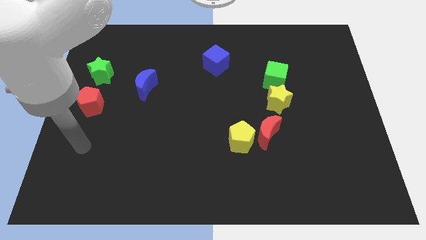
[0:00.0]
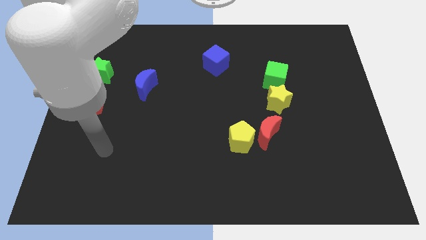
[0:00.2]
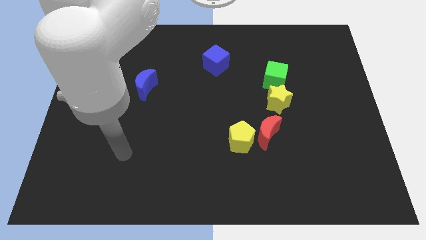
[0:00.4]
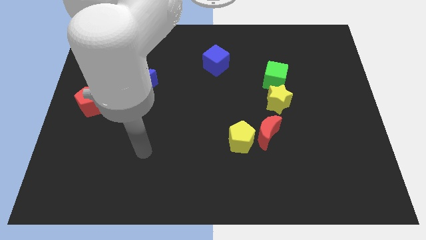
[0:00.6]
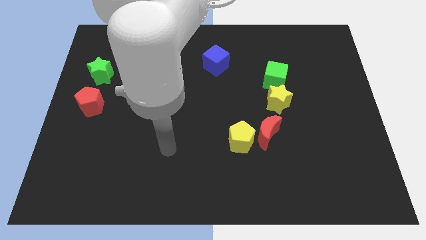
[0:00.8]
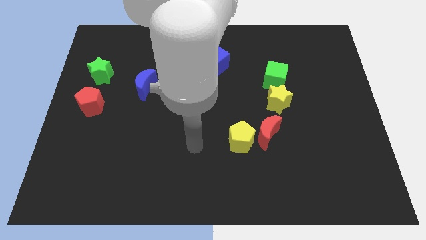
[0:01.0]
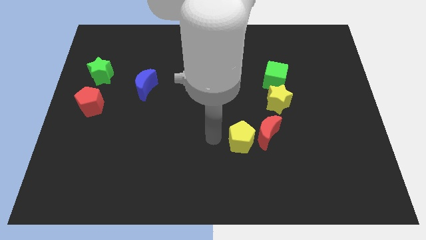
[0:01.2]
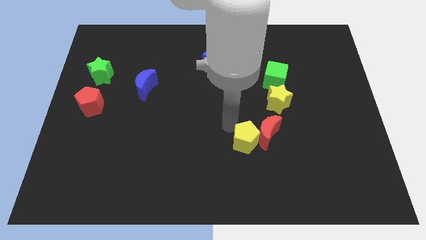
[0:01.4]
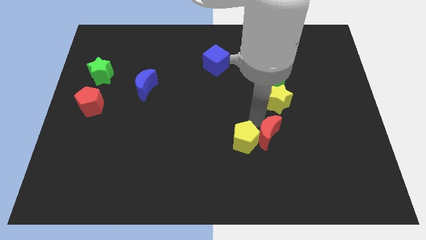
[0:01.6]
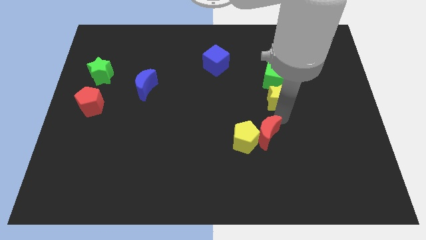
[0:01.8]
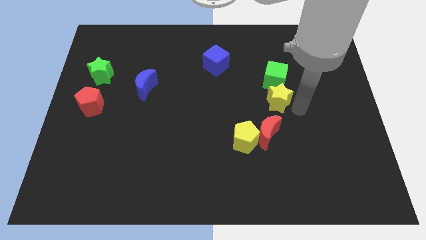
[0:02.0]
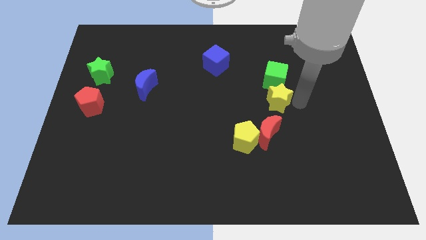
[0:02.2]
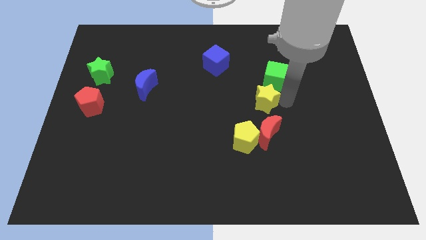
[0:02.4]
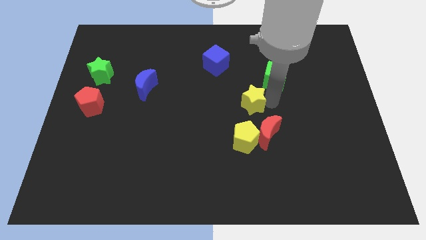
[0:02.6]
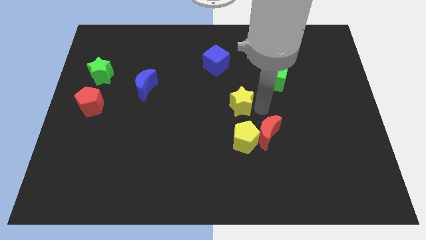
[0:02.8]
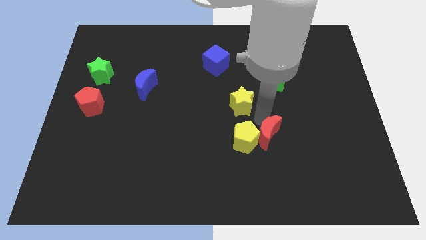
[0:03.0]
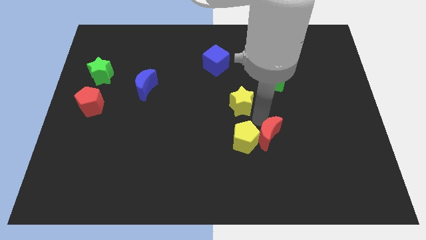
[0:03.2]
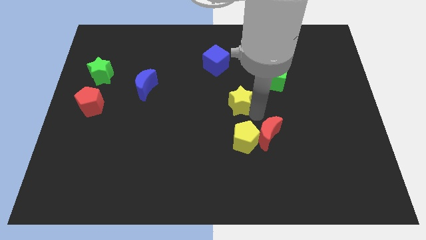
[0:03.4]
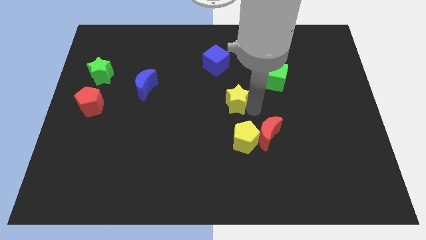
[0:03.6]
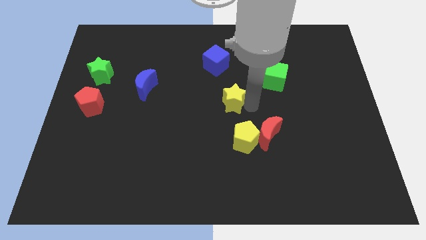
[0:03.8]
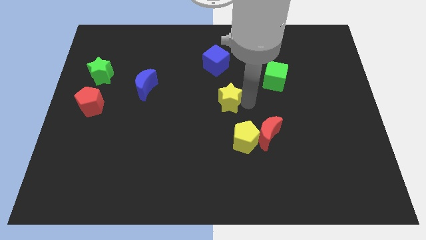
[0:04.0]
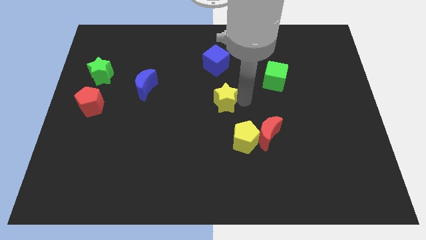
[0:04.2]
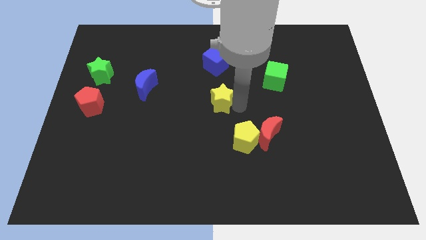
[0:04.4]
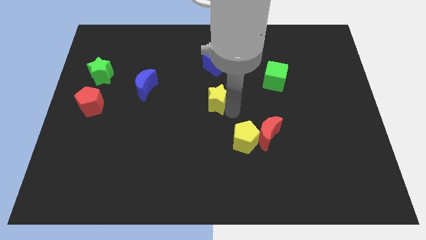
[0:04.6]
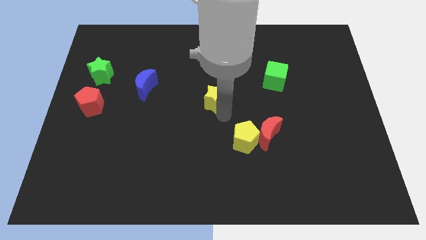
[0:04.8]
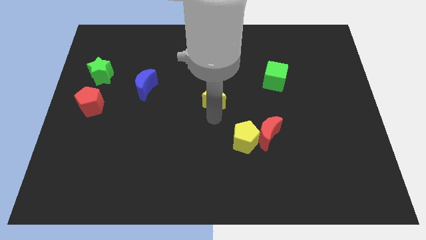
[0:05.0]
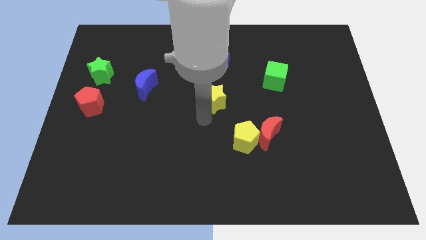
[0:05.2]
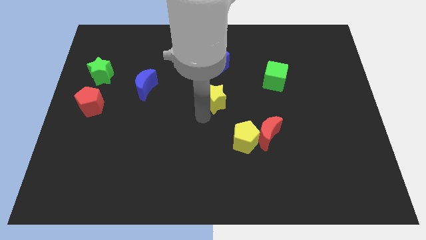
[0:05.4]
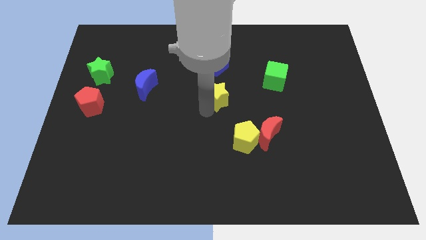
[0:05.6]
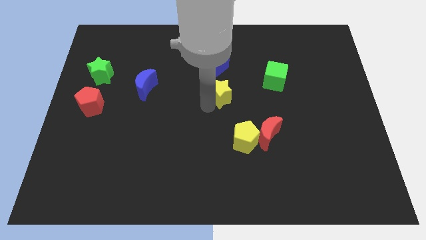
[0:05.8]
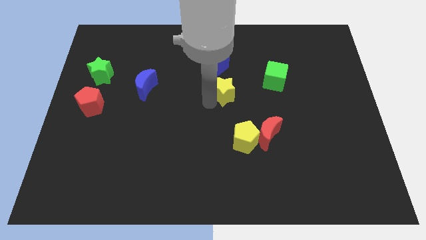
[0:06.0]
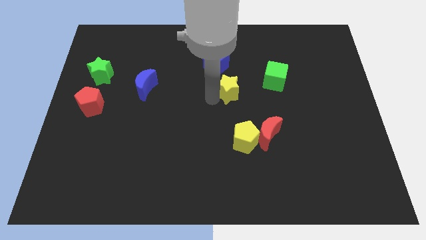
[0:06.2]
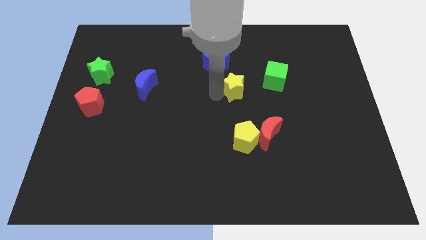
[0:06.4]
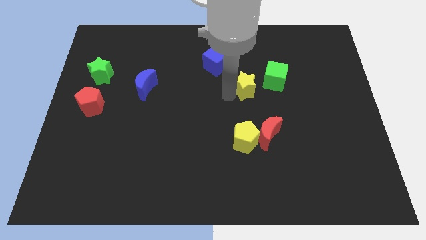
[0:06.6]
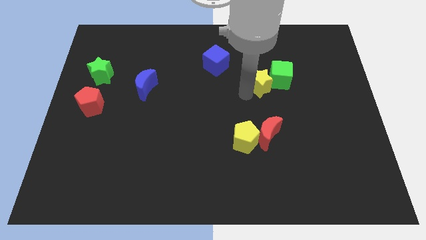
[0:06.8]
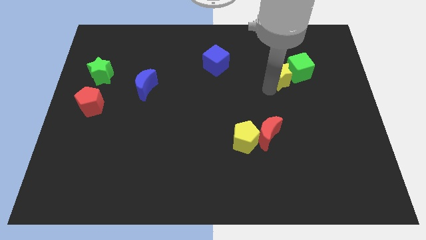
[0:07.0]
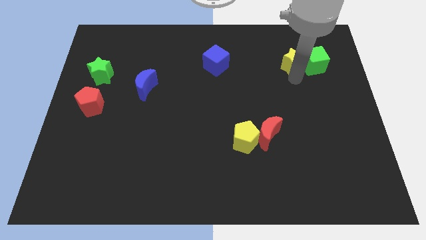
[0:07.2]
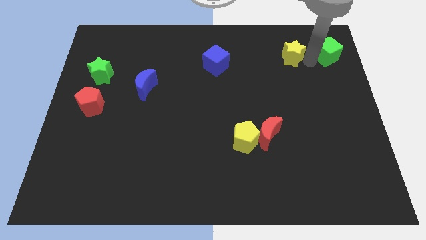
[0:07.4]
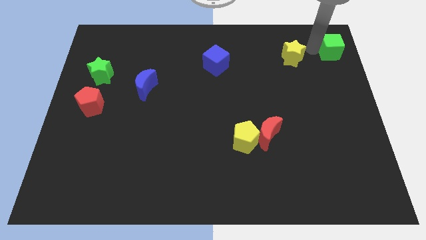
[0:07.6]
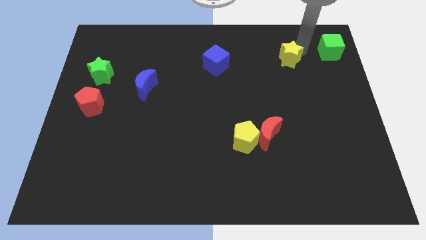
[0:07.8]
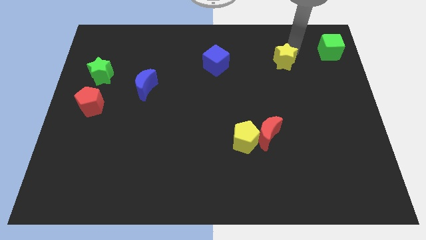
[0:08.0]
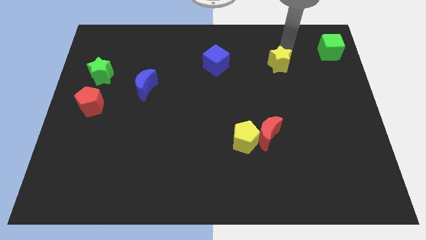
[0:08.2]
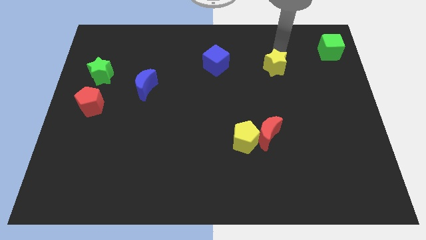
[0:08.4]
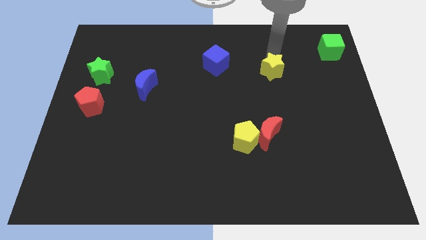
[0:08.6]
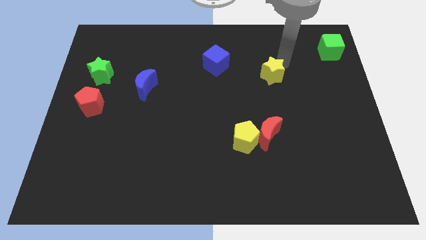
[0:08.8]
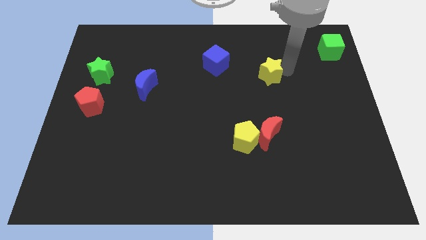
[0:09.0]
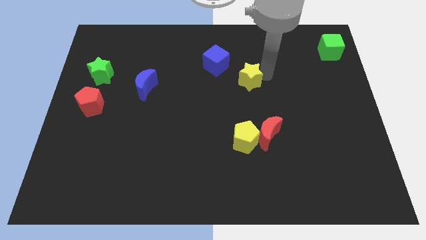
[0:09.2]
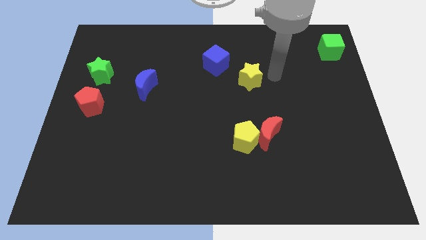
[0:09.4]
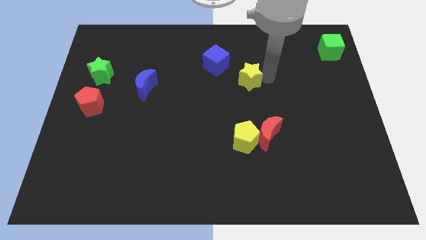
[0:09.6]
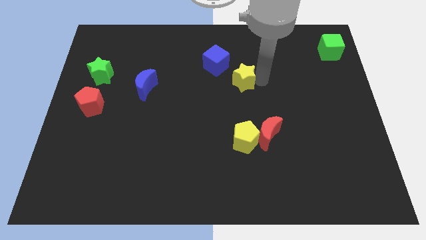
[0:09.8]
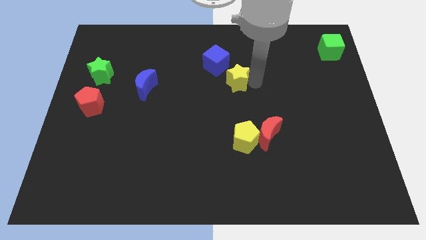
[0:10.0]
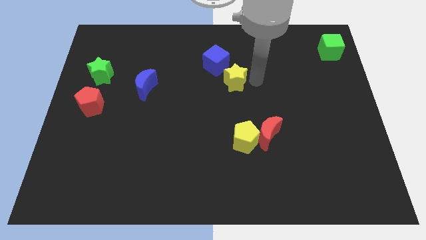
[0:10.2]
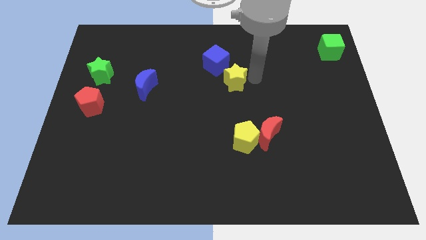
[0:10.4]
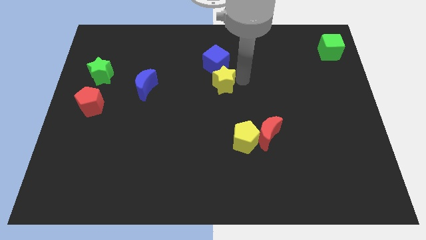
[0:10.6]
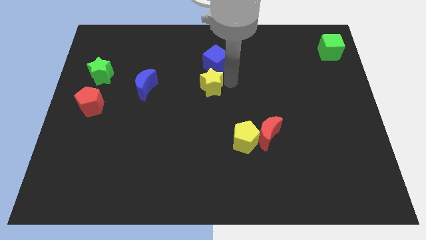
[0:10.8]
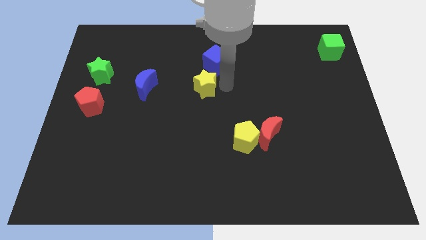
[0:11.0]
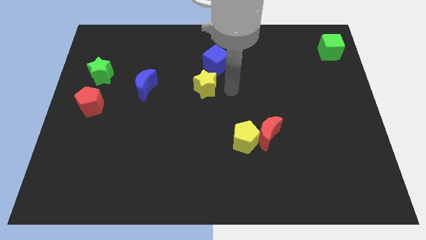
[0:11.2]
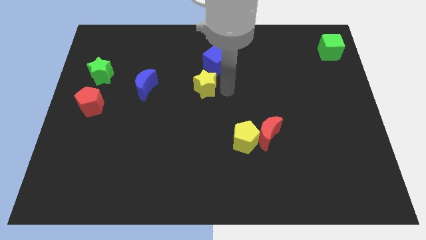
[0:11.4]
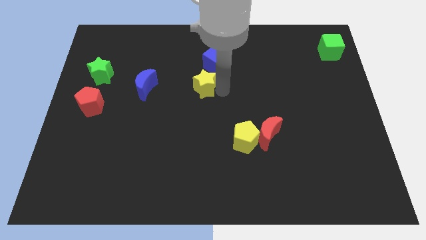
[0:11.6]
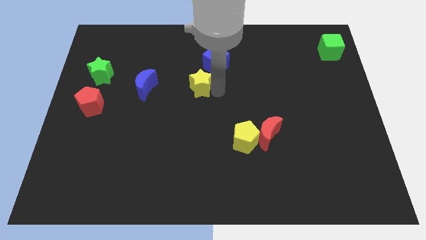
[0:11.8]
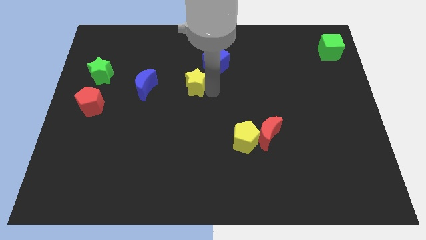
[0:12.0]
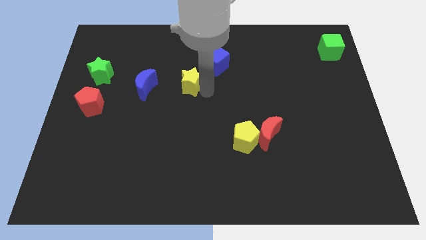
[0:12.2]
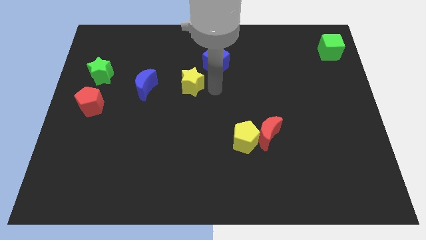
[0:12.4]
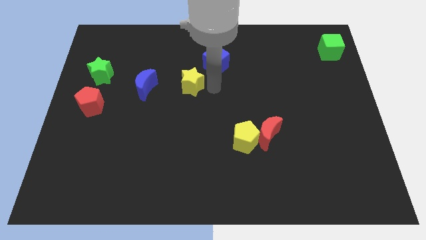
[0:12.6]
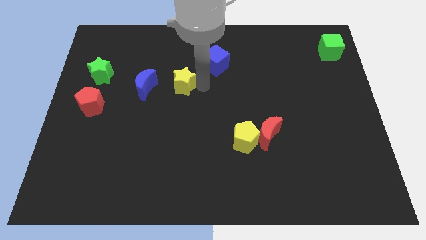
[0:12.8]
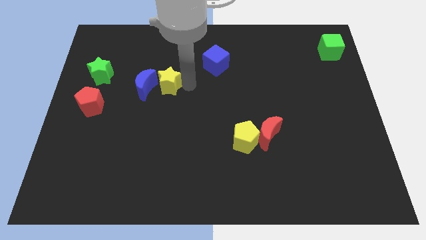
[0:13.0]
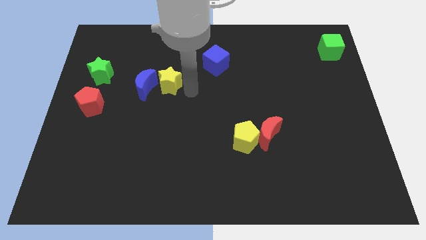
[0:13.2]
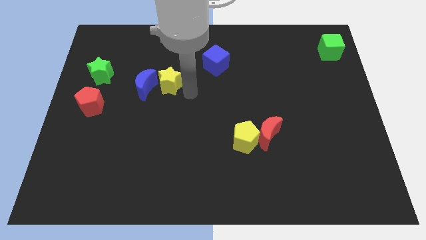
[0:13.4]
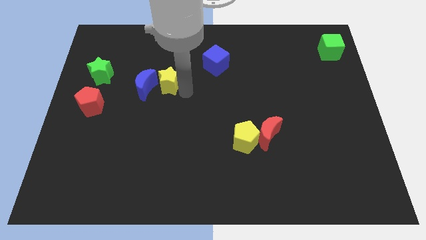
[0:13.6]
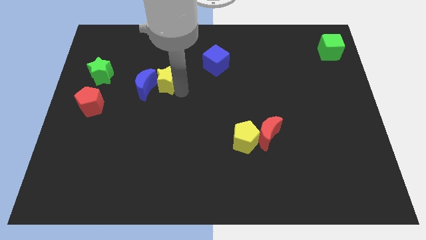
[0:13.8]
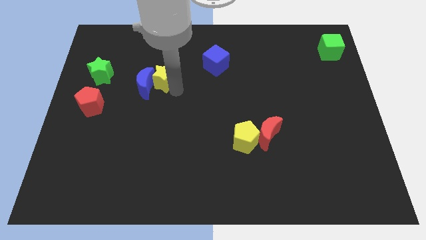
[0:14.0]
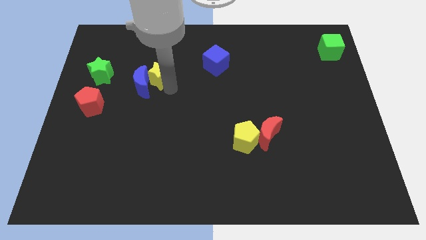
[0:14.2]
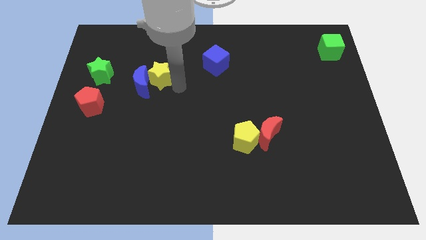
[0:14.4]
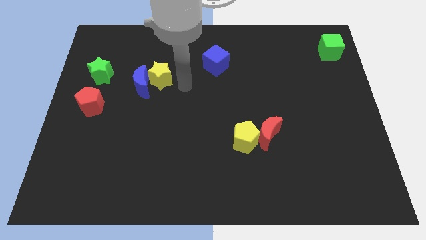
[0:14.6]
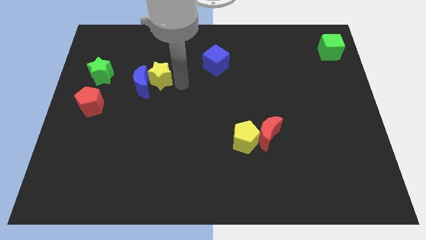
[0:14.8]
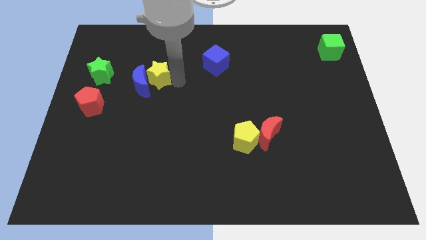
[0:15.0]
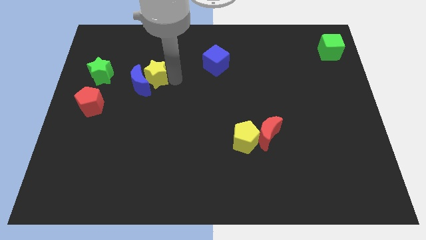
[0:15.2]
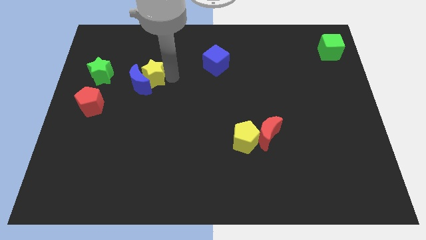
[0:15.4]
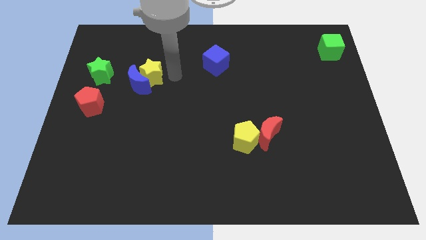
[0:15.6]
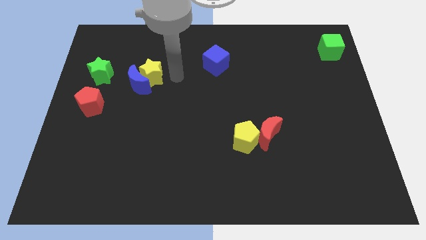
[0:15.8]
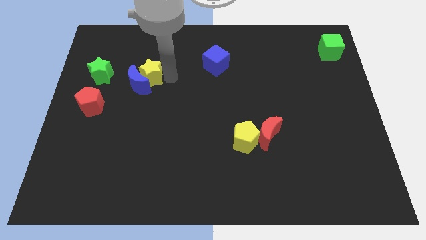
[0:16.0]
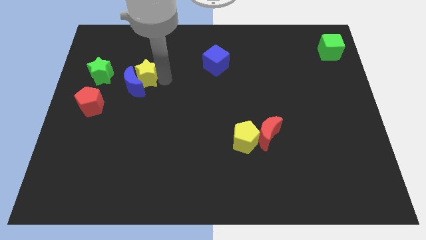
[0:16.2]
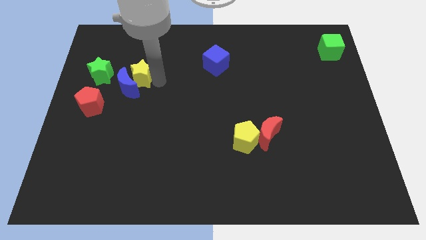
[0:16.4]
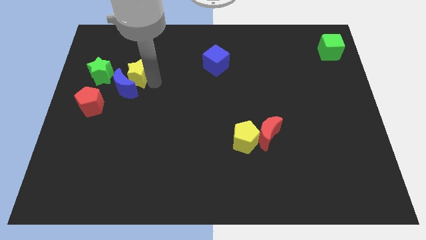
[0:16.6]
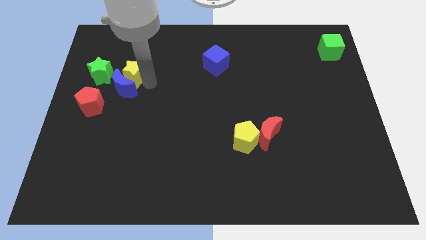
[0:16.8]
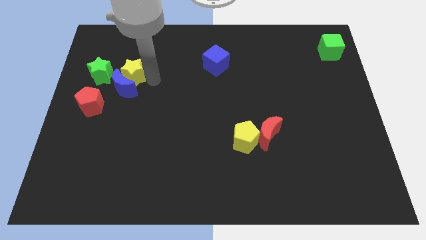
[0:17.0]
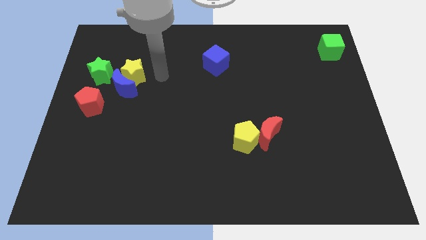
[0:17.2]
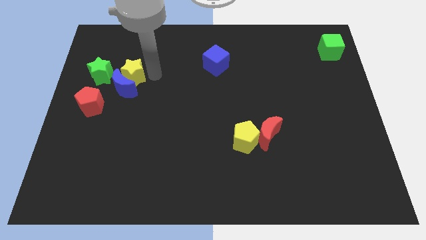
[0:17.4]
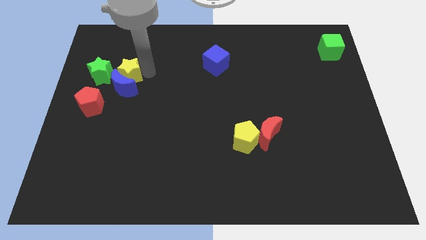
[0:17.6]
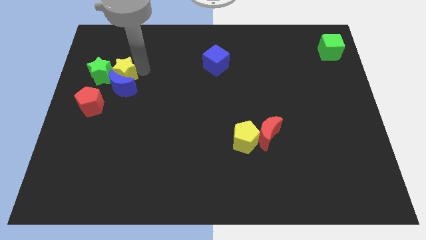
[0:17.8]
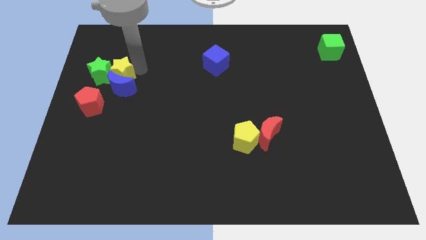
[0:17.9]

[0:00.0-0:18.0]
move the yellow star close to the green star
